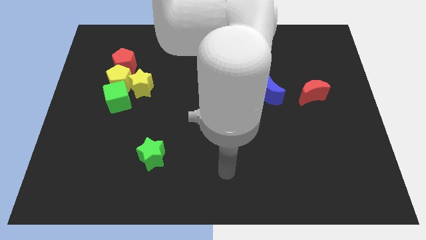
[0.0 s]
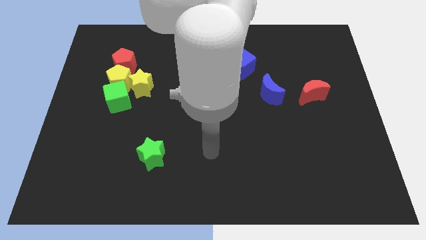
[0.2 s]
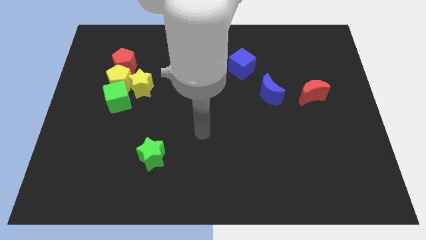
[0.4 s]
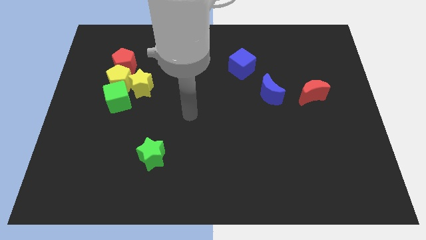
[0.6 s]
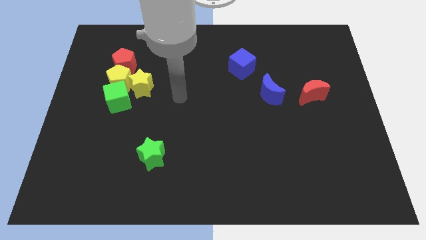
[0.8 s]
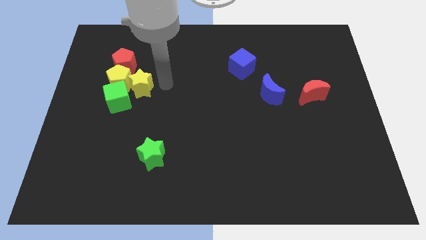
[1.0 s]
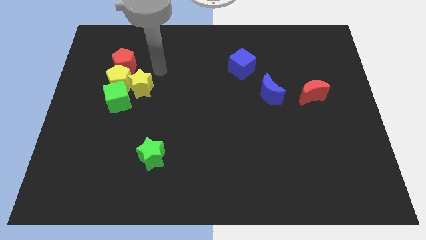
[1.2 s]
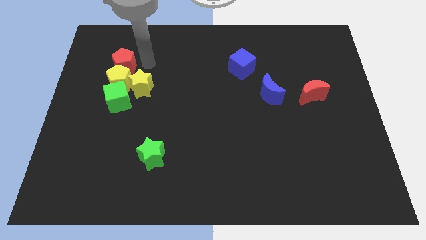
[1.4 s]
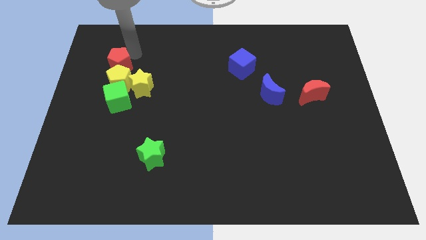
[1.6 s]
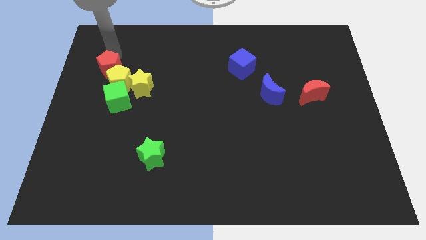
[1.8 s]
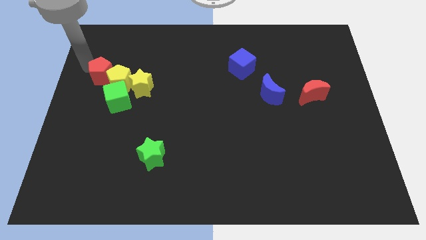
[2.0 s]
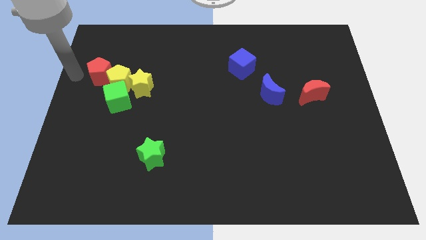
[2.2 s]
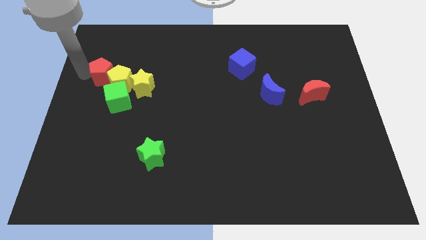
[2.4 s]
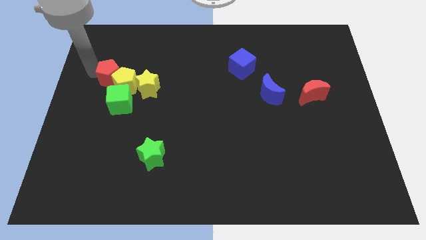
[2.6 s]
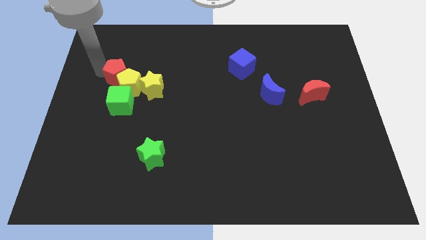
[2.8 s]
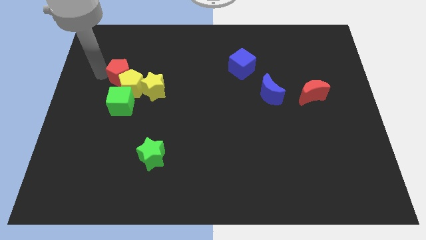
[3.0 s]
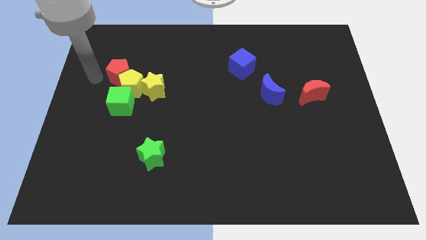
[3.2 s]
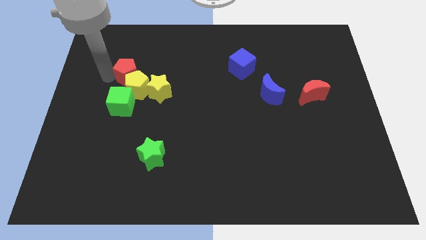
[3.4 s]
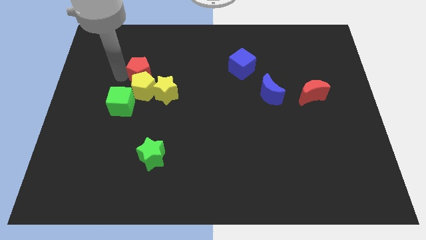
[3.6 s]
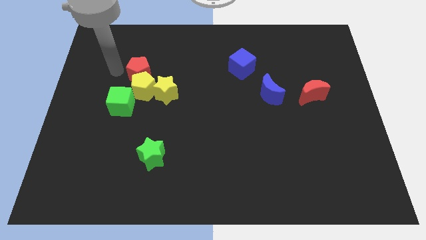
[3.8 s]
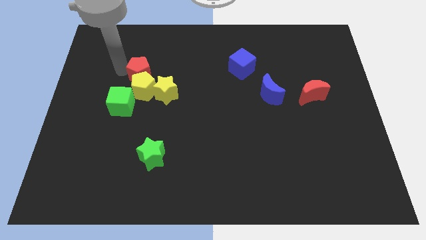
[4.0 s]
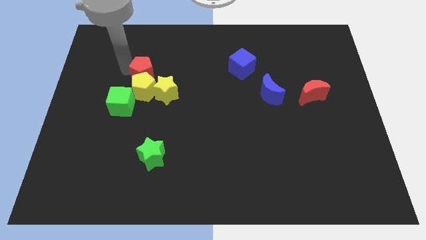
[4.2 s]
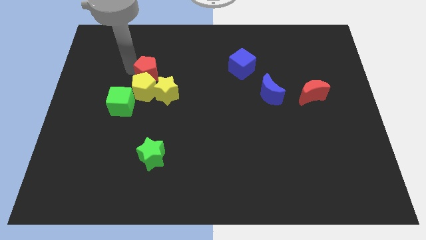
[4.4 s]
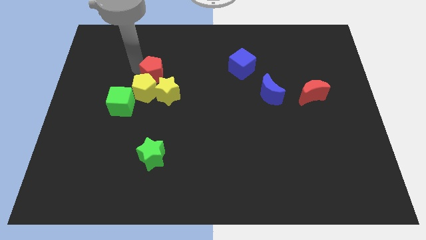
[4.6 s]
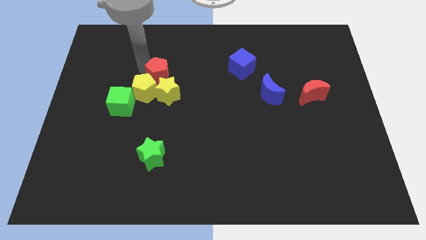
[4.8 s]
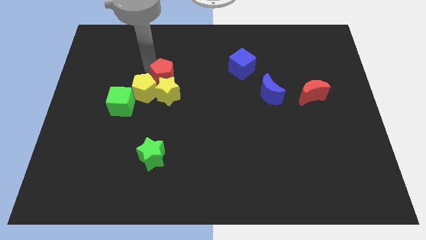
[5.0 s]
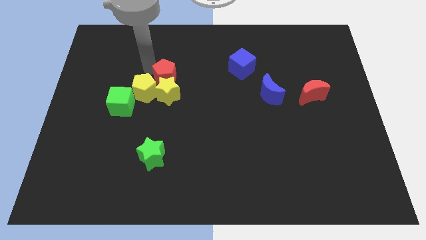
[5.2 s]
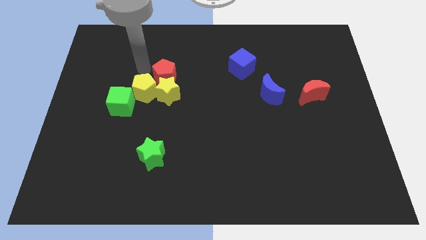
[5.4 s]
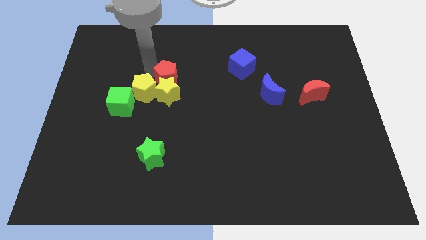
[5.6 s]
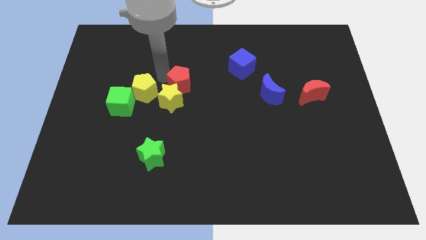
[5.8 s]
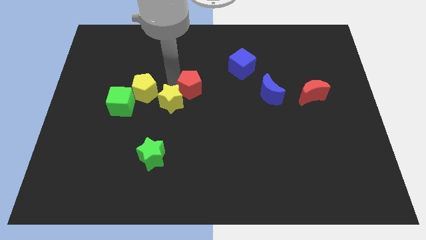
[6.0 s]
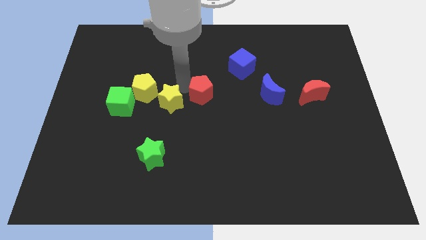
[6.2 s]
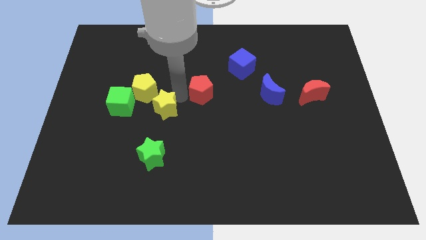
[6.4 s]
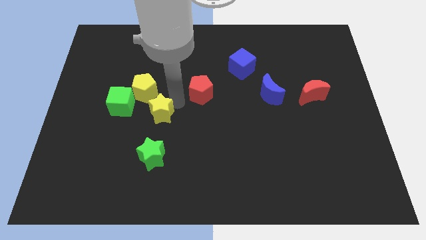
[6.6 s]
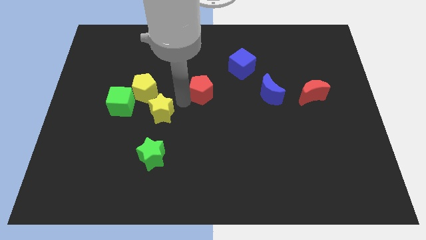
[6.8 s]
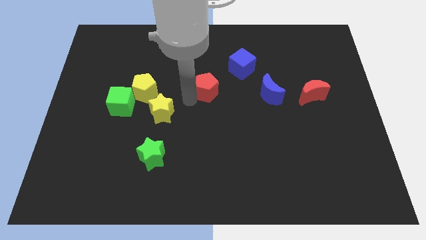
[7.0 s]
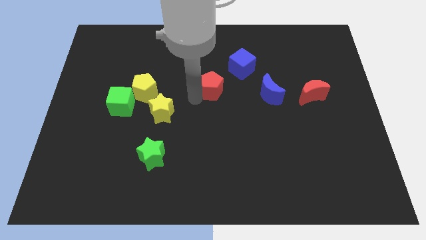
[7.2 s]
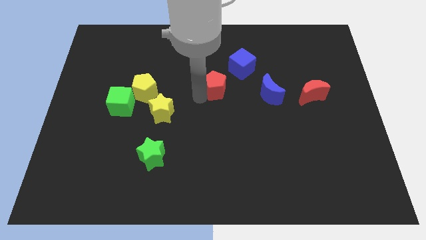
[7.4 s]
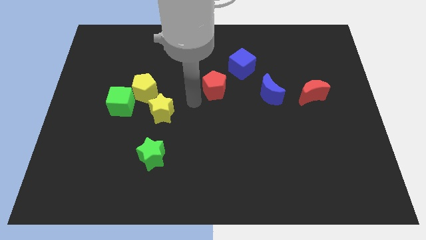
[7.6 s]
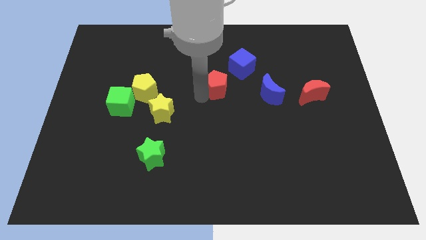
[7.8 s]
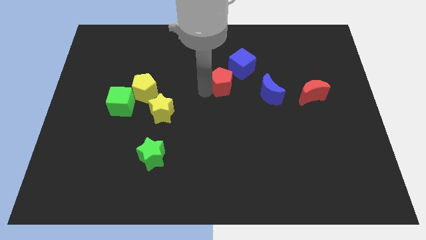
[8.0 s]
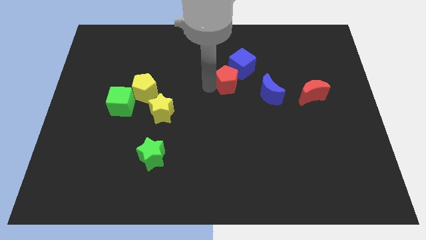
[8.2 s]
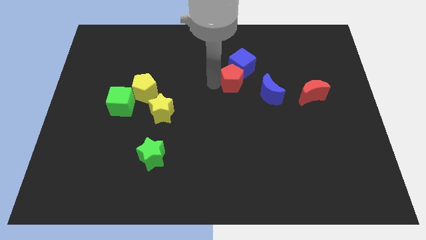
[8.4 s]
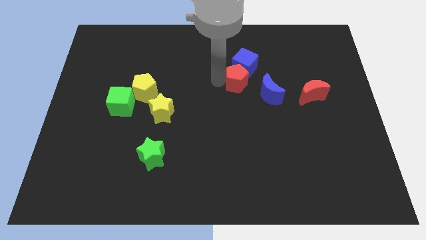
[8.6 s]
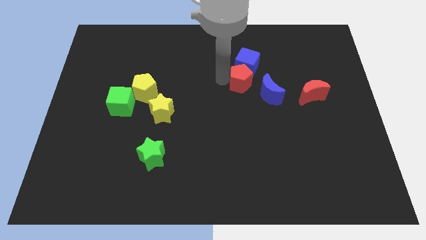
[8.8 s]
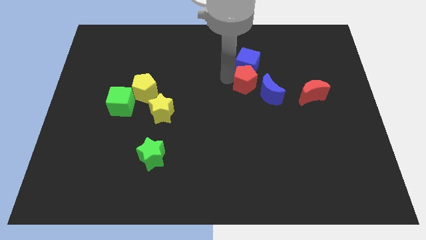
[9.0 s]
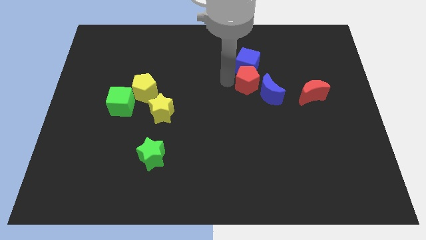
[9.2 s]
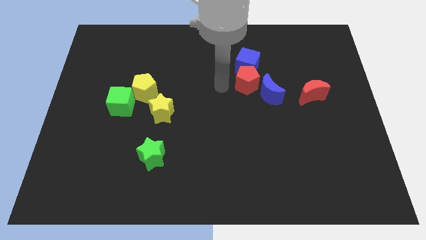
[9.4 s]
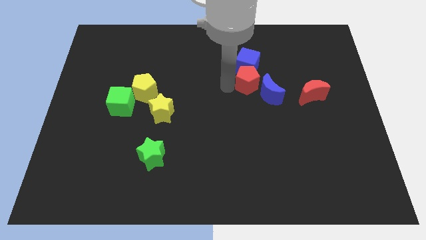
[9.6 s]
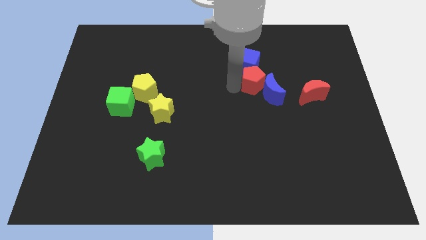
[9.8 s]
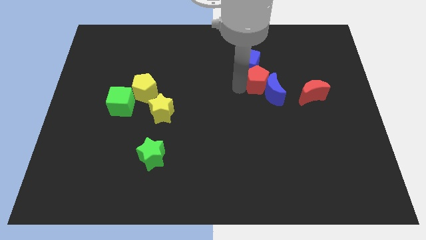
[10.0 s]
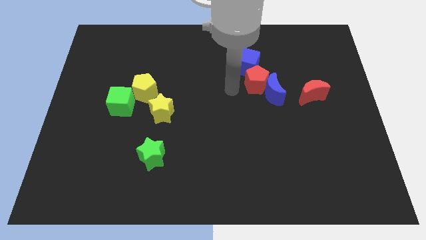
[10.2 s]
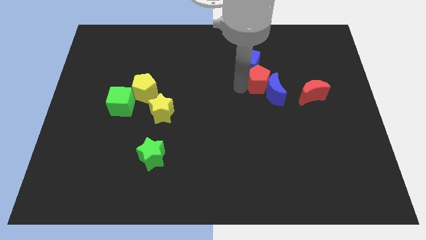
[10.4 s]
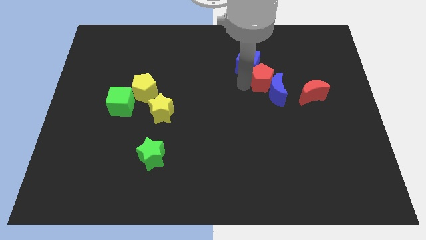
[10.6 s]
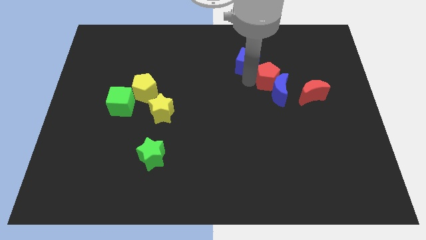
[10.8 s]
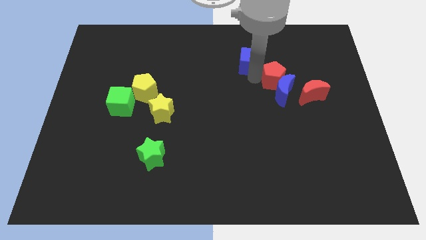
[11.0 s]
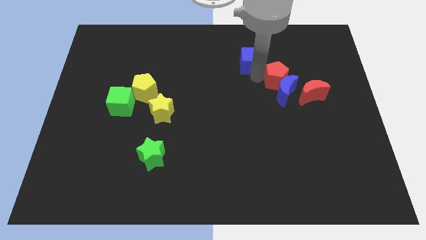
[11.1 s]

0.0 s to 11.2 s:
push the red pentagon to the top right of the blue moon

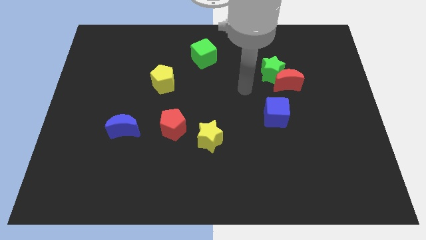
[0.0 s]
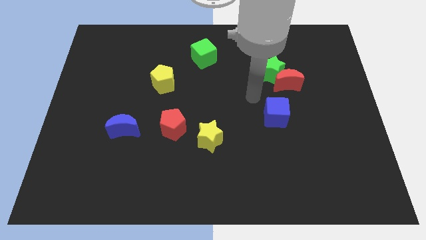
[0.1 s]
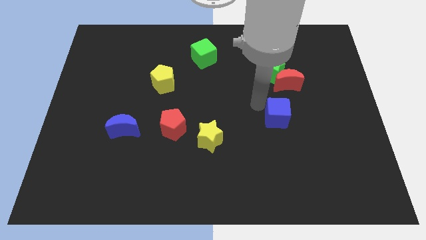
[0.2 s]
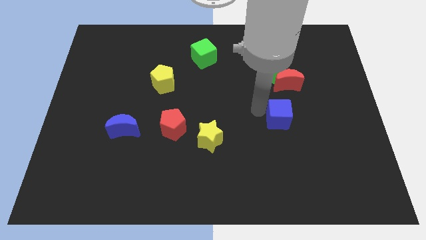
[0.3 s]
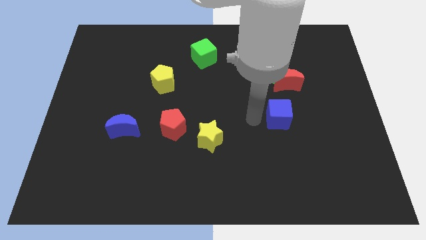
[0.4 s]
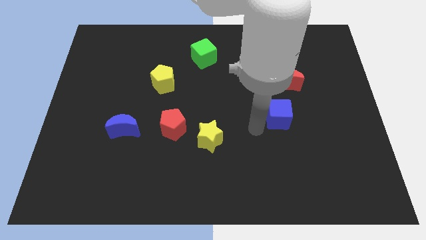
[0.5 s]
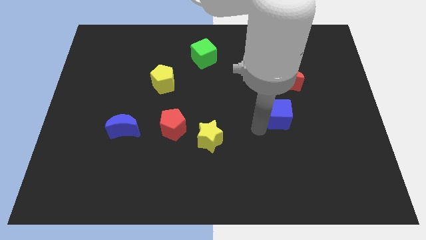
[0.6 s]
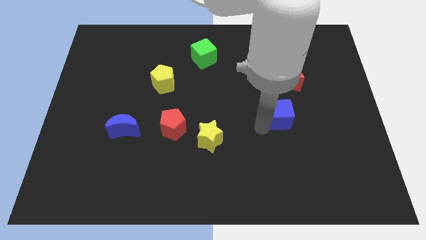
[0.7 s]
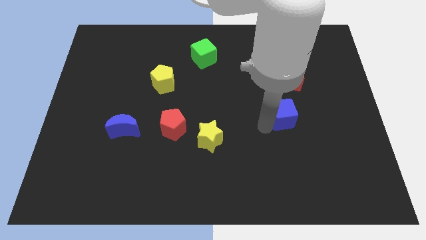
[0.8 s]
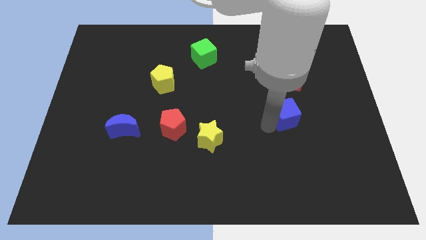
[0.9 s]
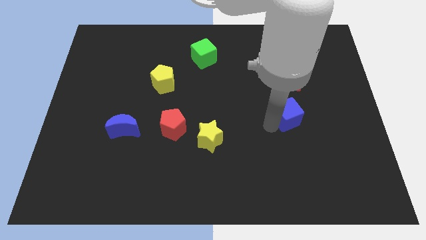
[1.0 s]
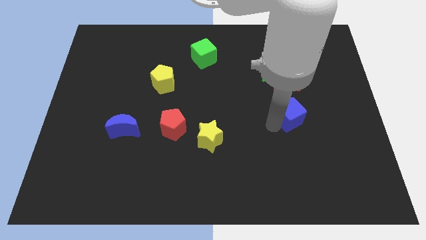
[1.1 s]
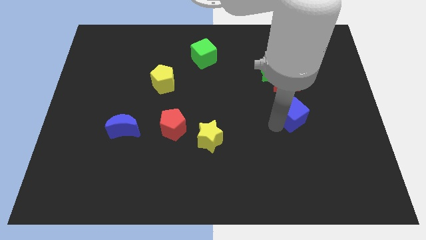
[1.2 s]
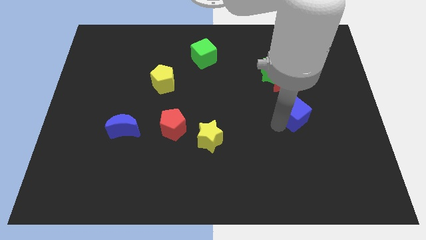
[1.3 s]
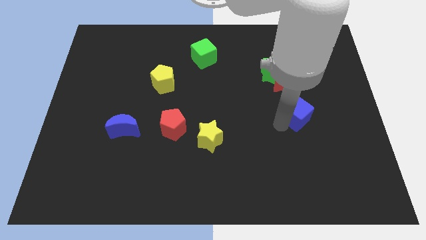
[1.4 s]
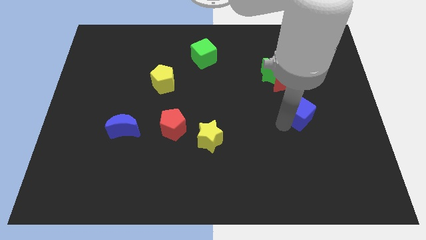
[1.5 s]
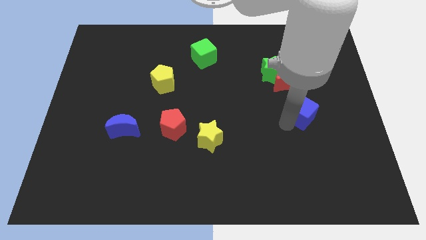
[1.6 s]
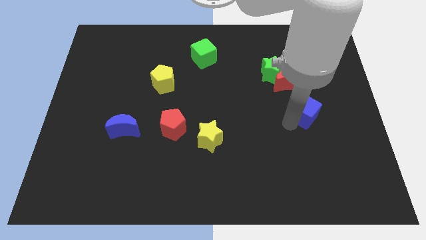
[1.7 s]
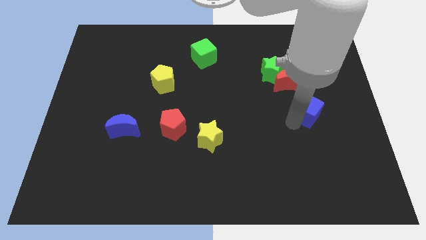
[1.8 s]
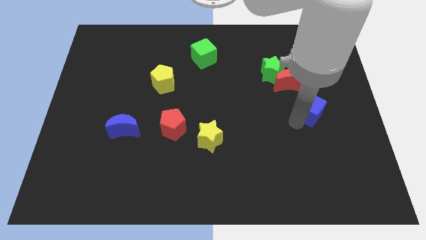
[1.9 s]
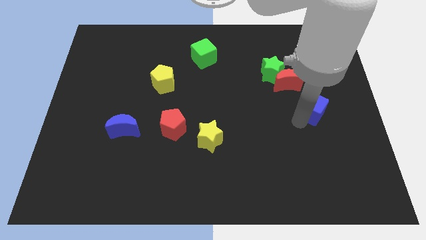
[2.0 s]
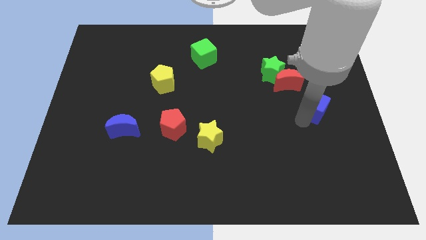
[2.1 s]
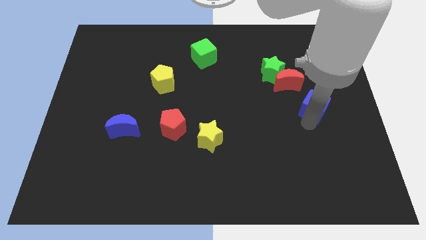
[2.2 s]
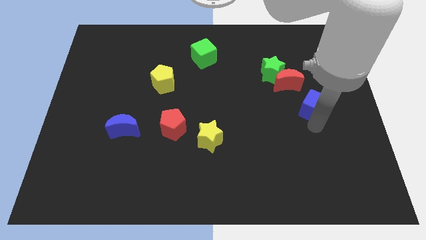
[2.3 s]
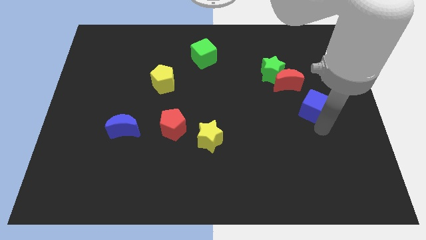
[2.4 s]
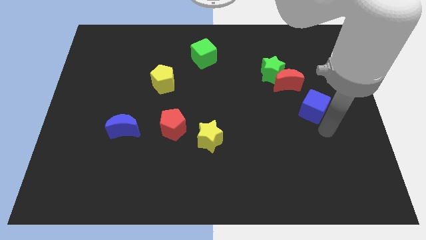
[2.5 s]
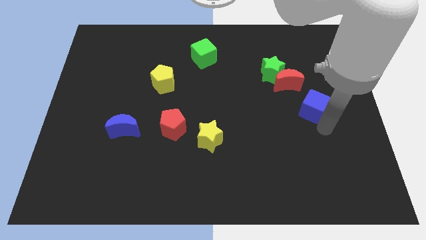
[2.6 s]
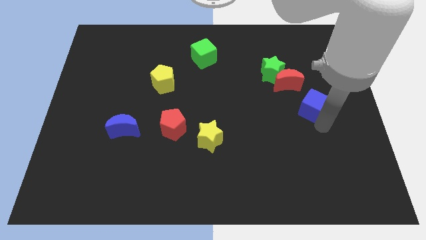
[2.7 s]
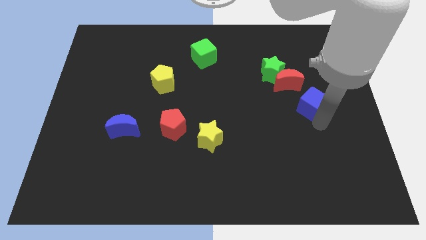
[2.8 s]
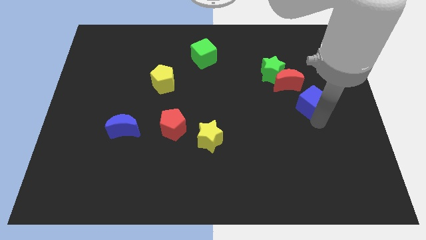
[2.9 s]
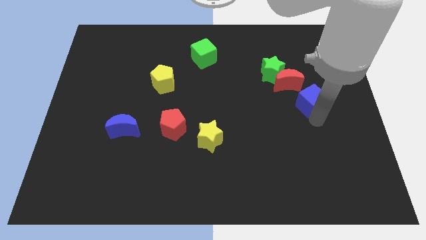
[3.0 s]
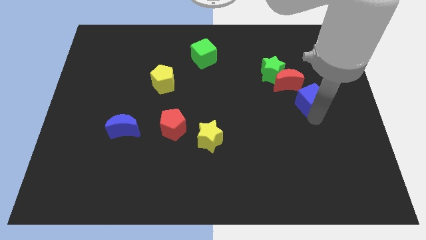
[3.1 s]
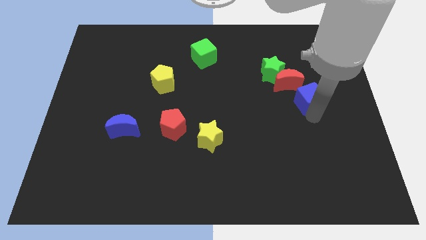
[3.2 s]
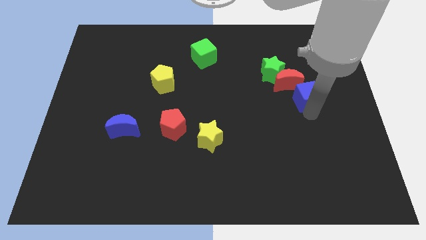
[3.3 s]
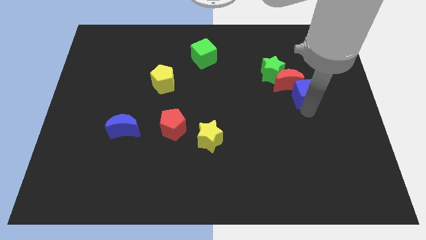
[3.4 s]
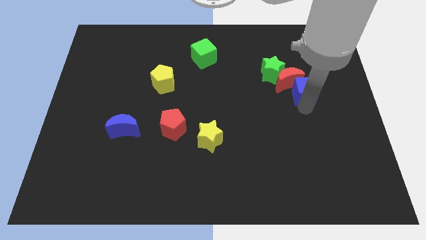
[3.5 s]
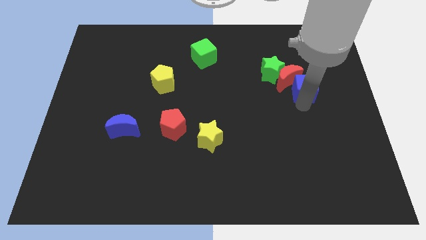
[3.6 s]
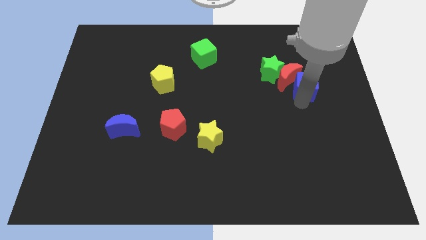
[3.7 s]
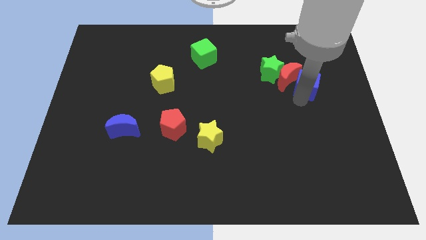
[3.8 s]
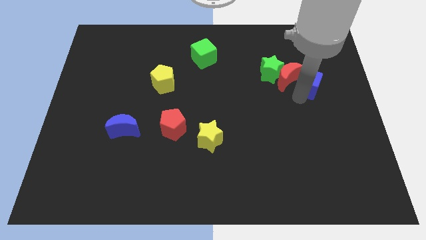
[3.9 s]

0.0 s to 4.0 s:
move the blue cube just right of the green star
